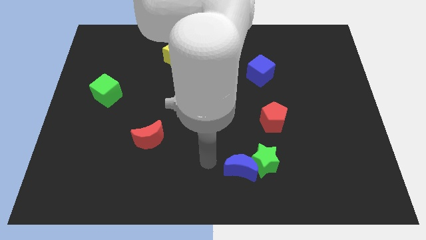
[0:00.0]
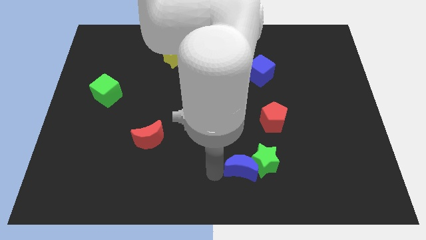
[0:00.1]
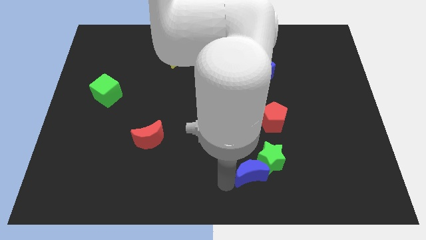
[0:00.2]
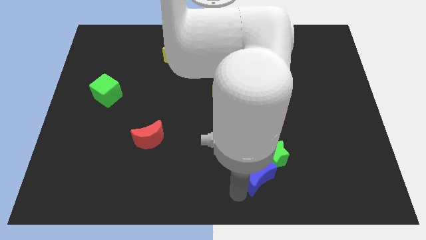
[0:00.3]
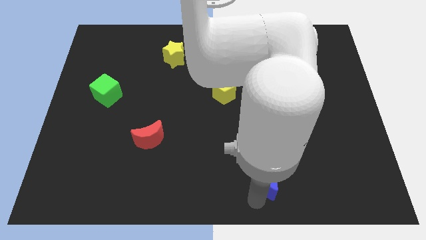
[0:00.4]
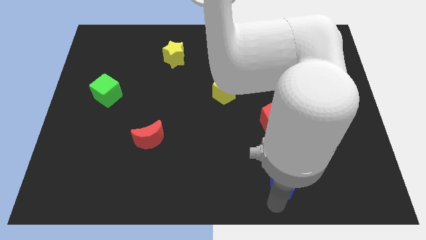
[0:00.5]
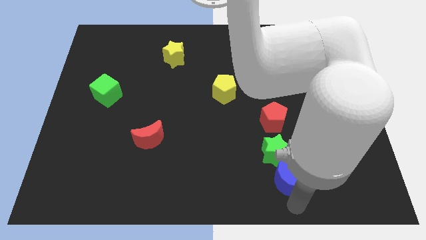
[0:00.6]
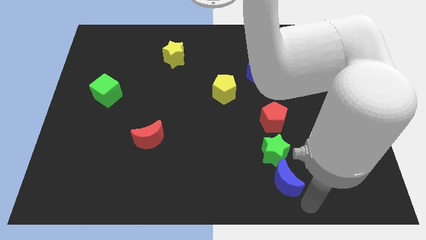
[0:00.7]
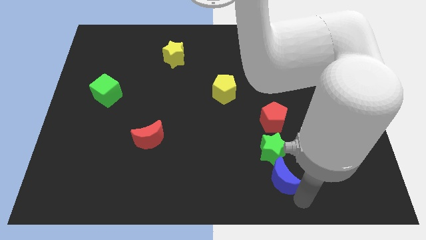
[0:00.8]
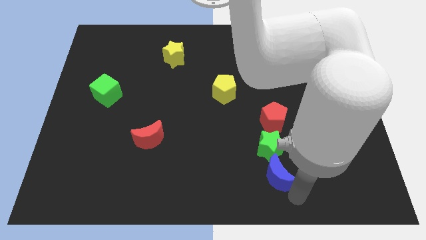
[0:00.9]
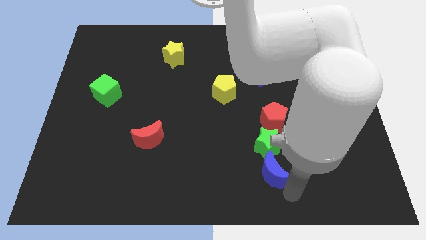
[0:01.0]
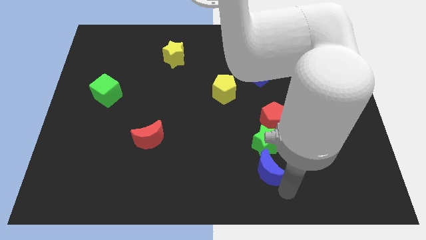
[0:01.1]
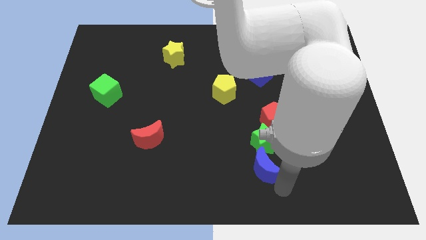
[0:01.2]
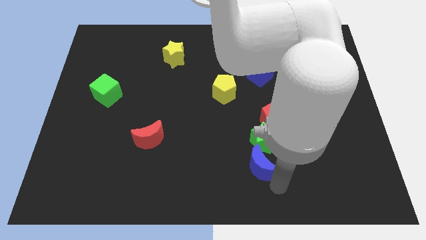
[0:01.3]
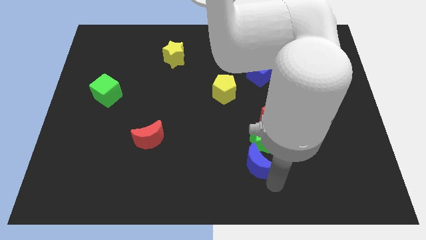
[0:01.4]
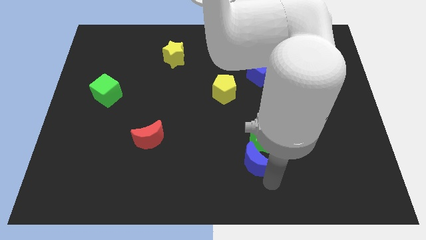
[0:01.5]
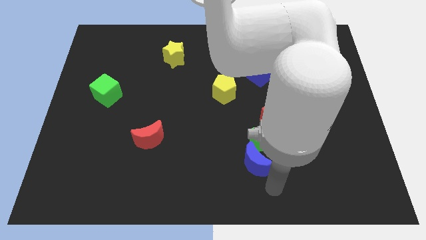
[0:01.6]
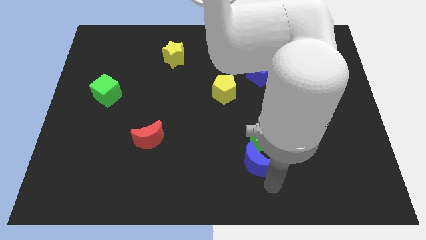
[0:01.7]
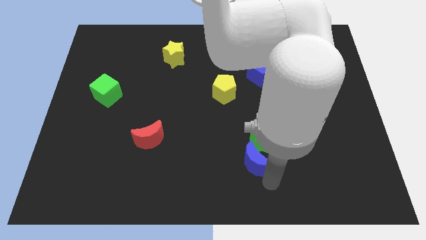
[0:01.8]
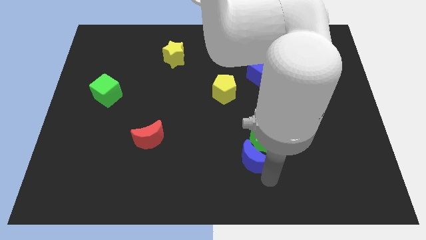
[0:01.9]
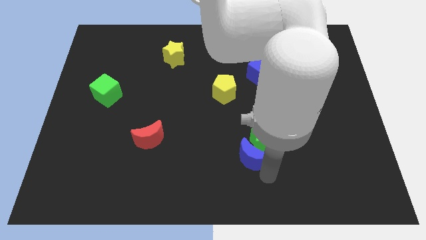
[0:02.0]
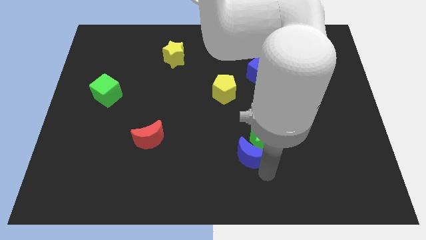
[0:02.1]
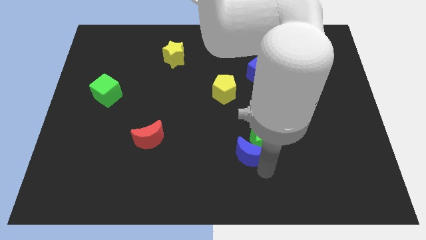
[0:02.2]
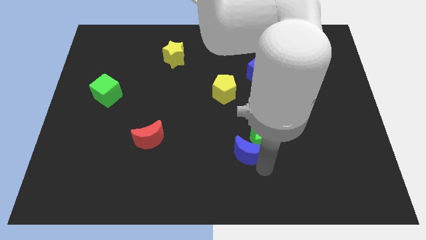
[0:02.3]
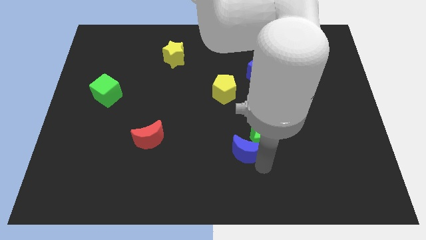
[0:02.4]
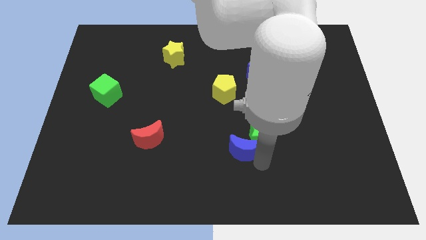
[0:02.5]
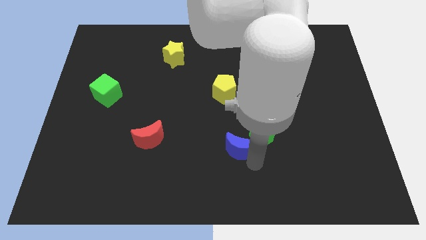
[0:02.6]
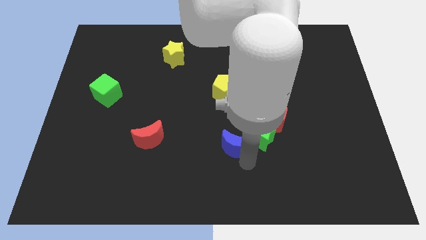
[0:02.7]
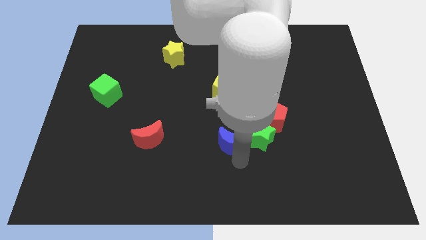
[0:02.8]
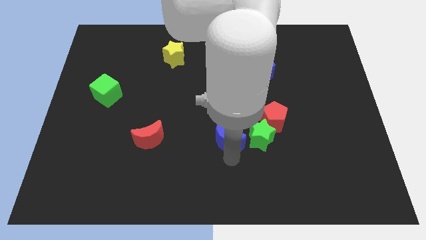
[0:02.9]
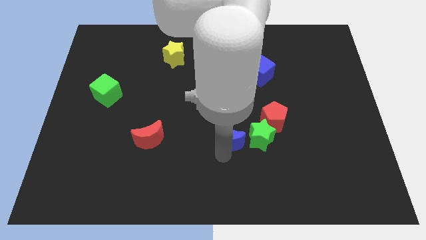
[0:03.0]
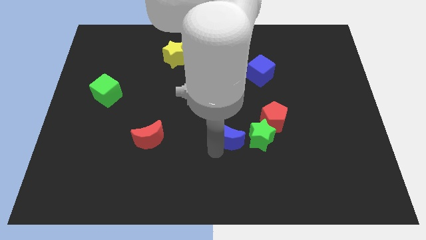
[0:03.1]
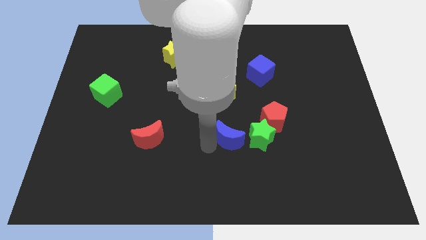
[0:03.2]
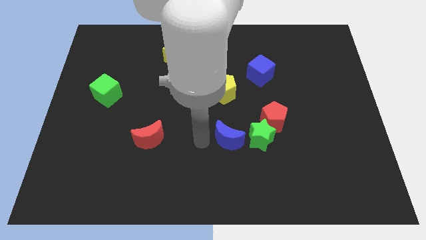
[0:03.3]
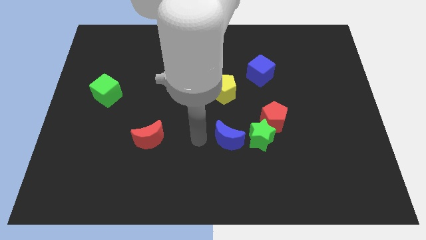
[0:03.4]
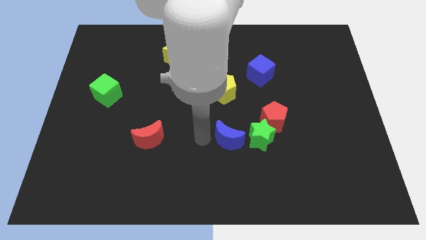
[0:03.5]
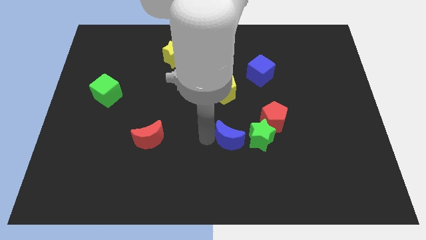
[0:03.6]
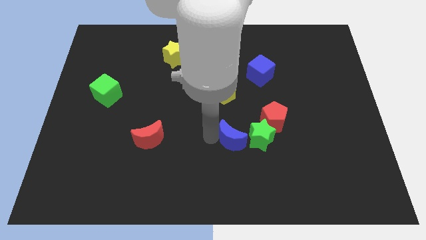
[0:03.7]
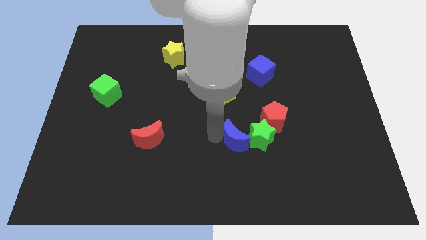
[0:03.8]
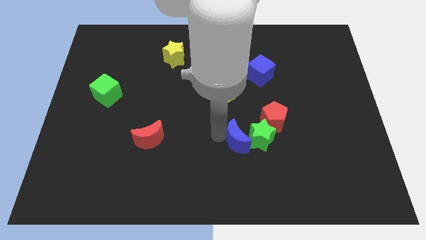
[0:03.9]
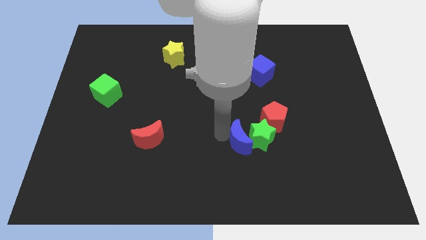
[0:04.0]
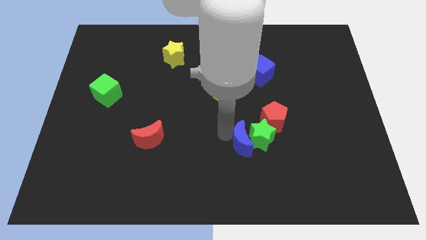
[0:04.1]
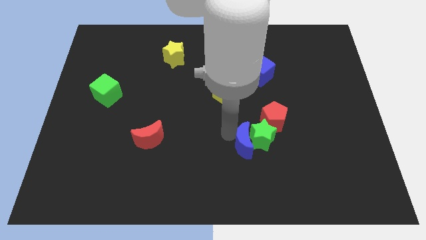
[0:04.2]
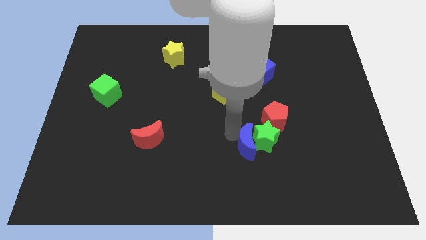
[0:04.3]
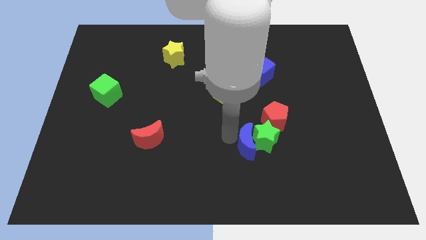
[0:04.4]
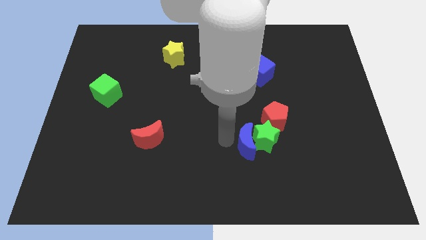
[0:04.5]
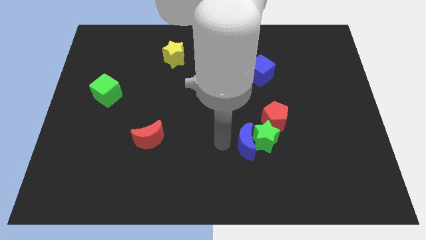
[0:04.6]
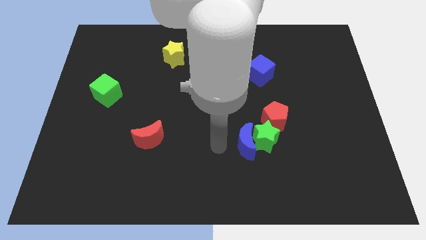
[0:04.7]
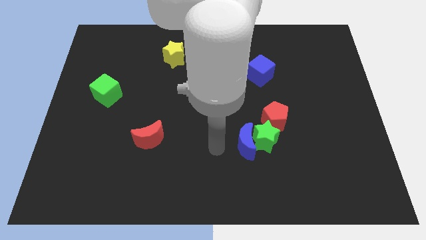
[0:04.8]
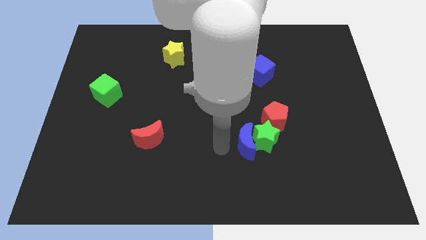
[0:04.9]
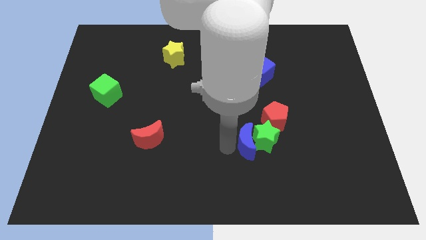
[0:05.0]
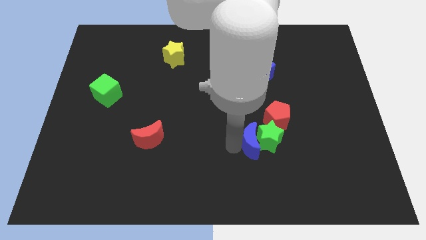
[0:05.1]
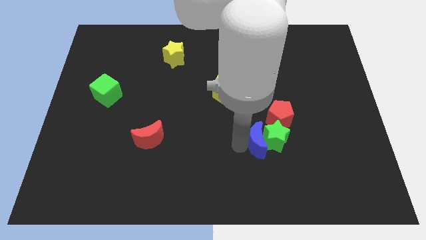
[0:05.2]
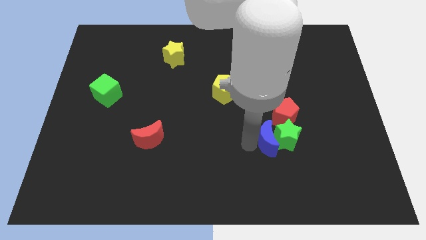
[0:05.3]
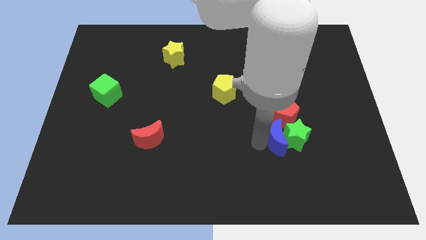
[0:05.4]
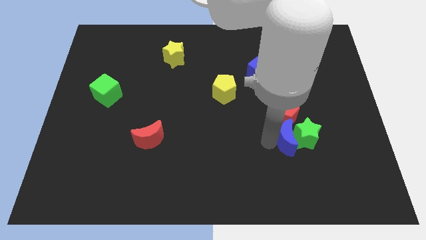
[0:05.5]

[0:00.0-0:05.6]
slide the blue moon to the bottom right of the red pentagon

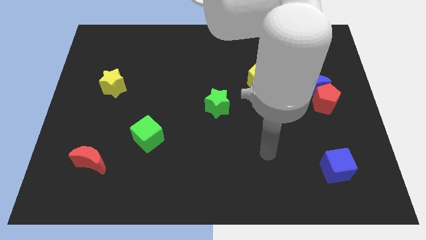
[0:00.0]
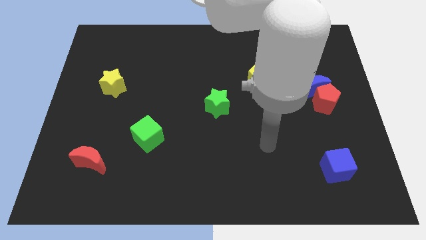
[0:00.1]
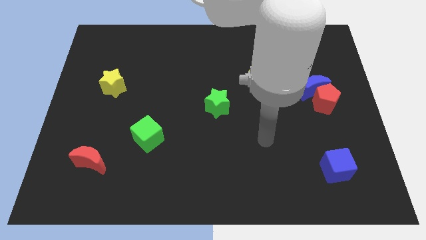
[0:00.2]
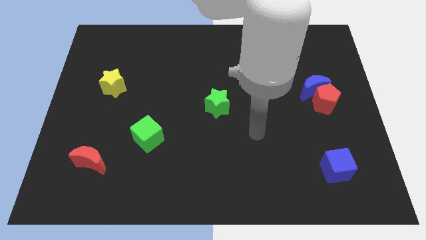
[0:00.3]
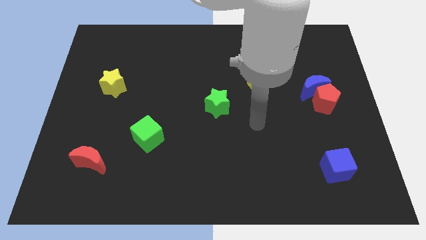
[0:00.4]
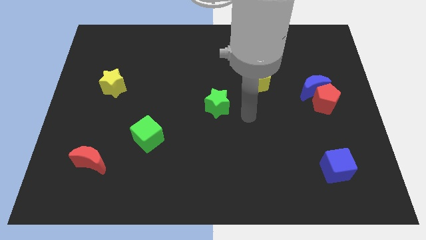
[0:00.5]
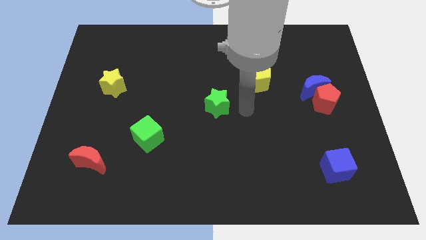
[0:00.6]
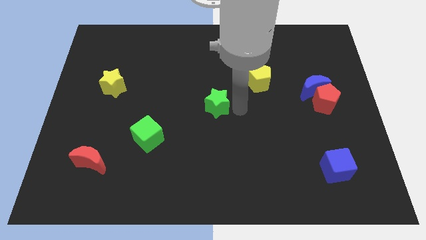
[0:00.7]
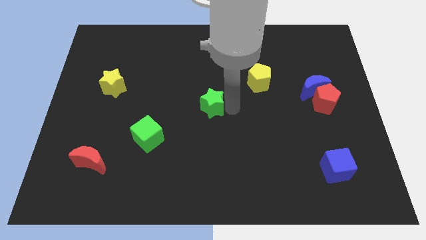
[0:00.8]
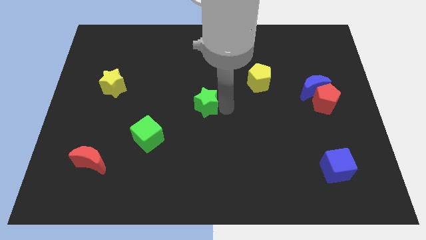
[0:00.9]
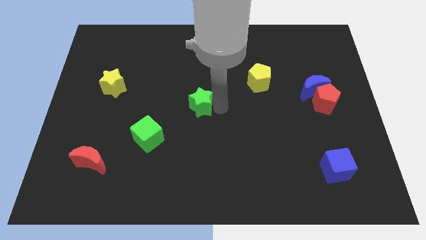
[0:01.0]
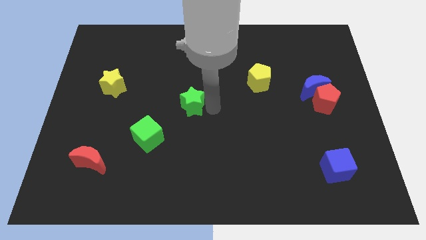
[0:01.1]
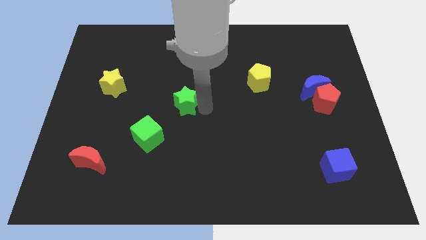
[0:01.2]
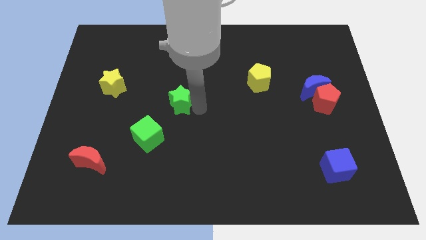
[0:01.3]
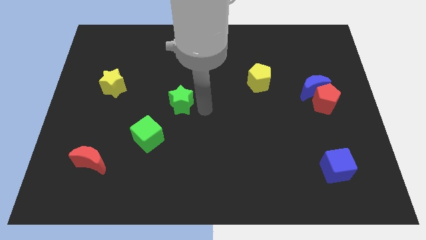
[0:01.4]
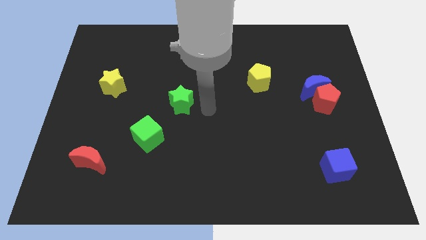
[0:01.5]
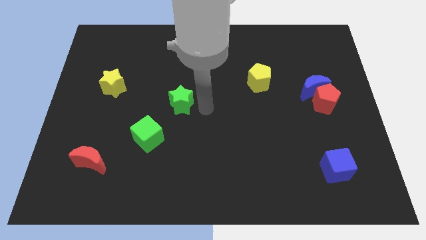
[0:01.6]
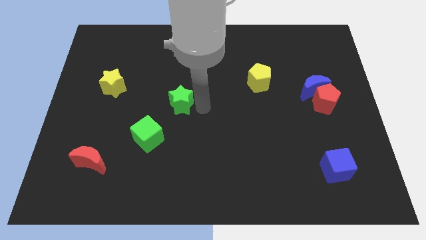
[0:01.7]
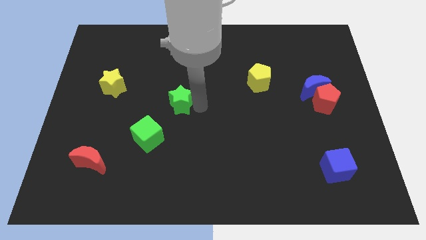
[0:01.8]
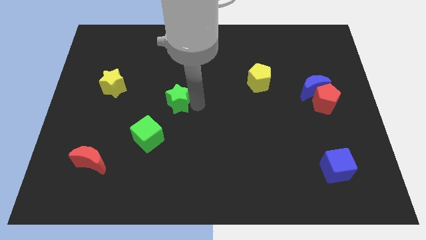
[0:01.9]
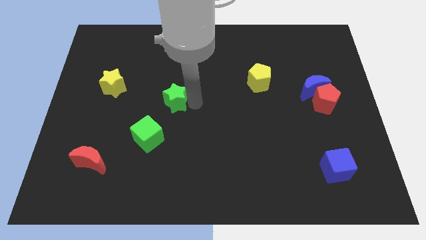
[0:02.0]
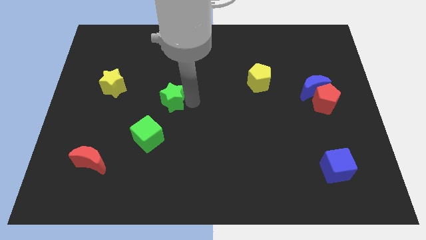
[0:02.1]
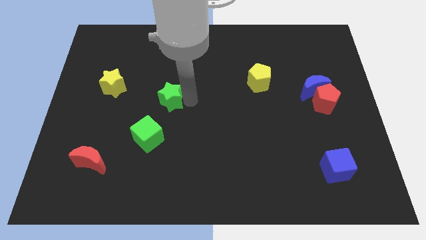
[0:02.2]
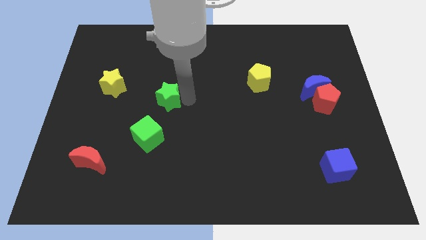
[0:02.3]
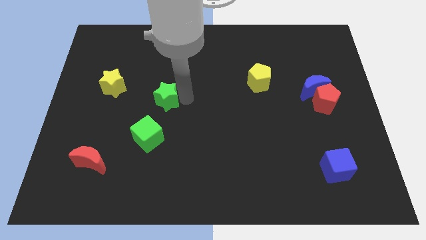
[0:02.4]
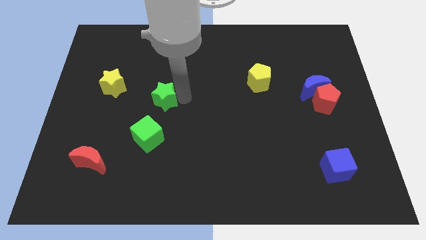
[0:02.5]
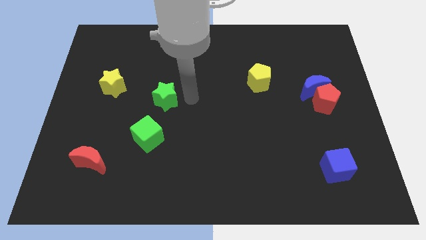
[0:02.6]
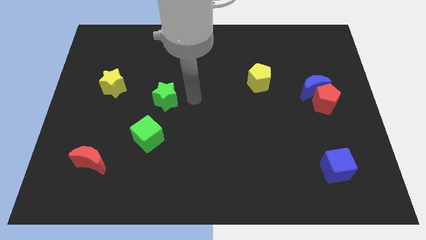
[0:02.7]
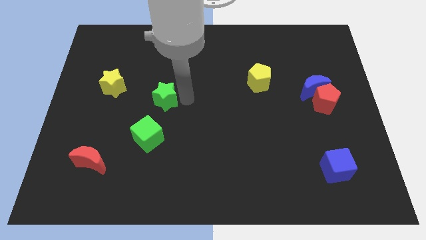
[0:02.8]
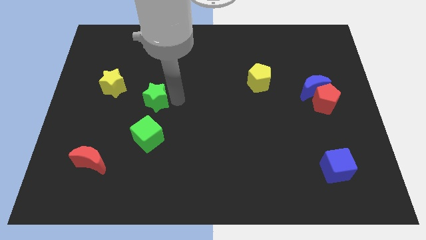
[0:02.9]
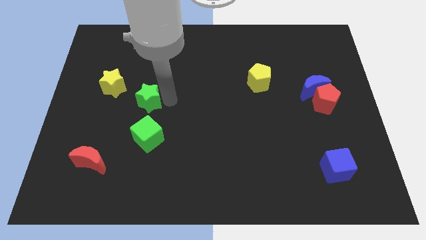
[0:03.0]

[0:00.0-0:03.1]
move the green star diagonally down and to the right of the yellow star
